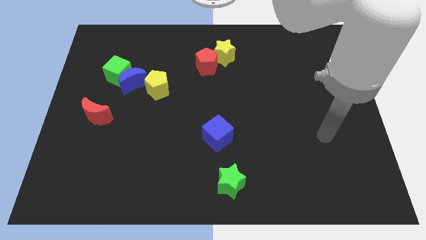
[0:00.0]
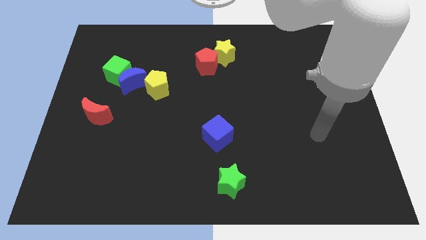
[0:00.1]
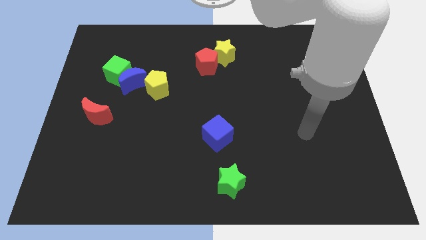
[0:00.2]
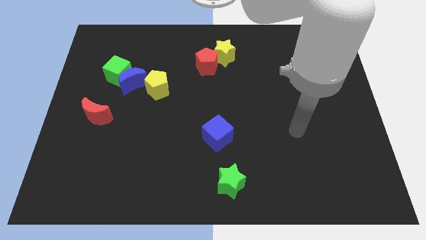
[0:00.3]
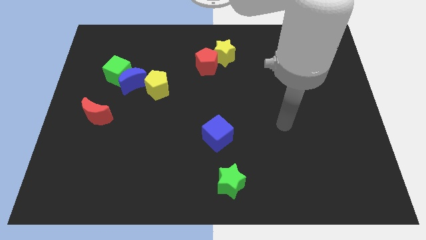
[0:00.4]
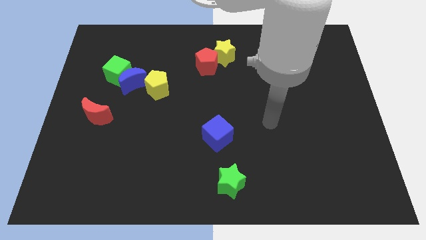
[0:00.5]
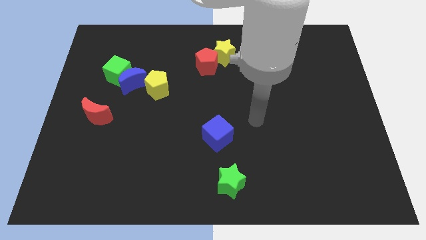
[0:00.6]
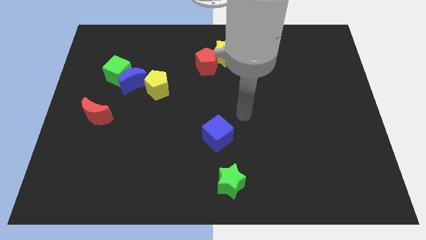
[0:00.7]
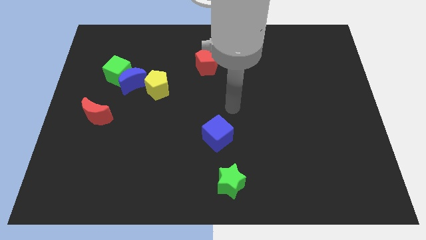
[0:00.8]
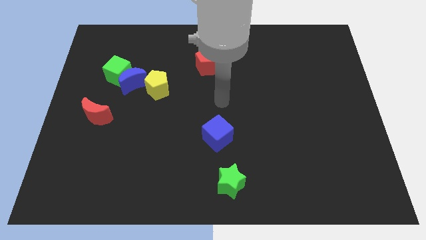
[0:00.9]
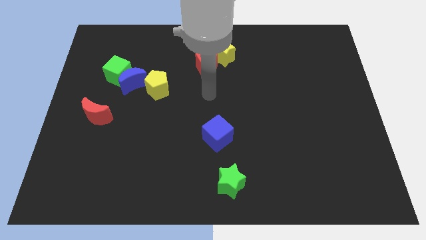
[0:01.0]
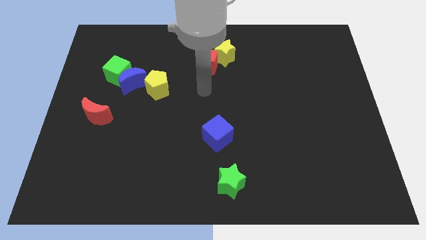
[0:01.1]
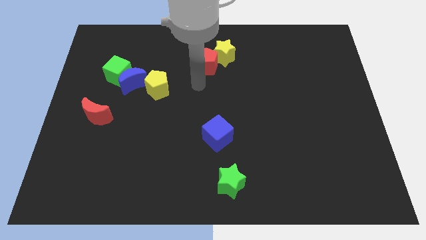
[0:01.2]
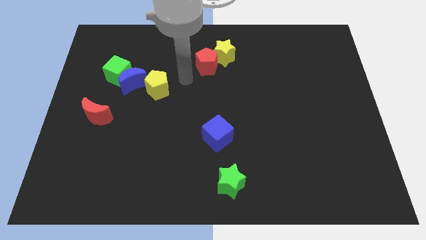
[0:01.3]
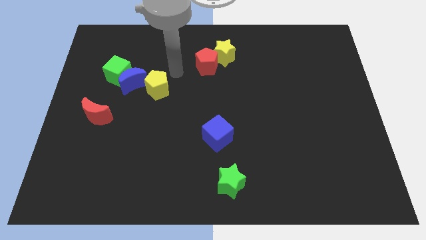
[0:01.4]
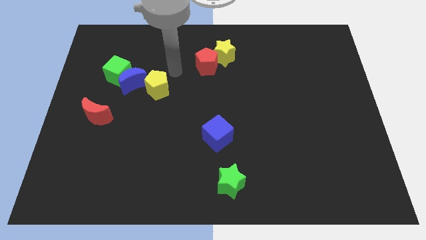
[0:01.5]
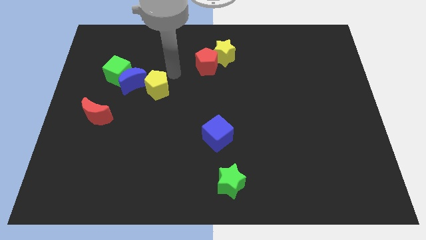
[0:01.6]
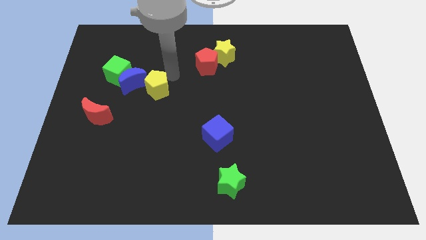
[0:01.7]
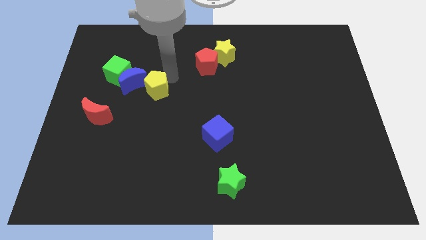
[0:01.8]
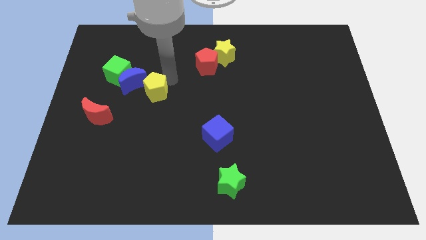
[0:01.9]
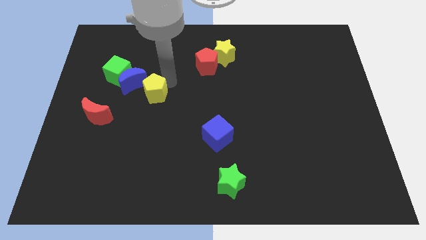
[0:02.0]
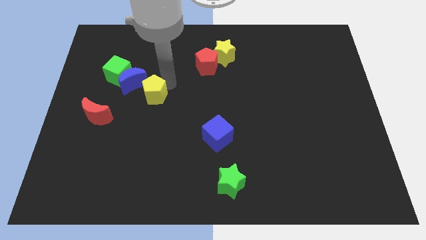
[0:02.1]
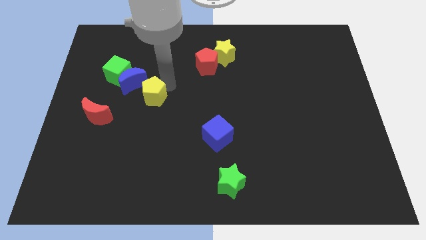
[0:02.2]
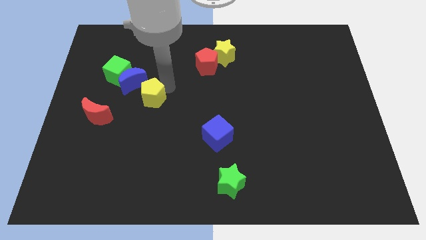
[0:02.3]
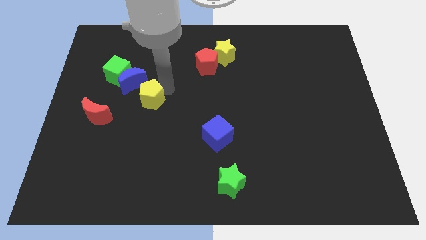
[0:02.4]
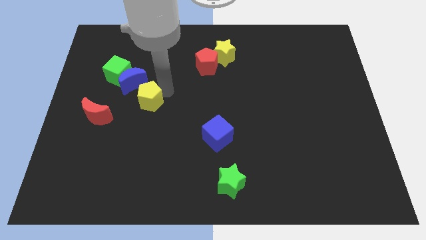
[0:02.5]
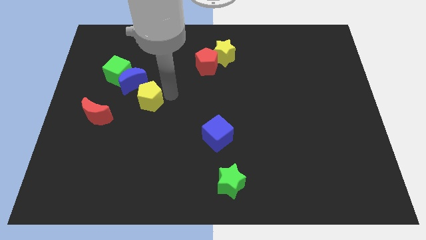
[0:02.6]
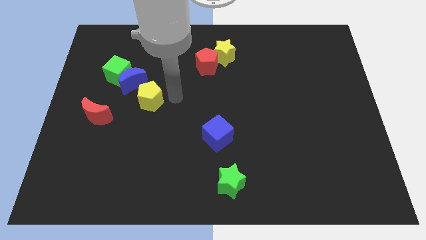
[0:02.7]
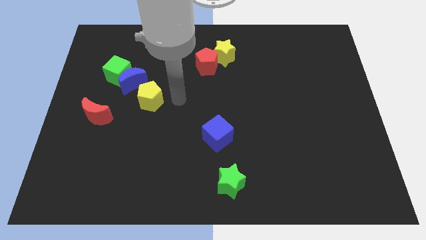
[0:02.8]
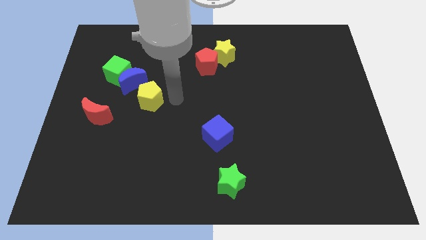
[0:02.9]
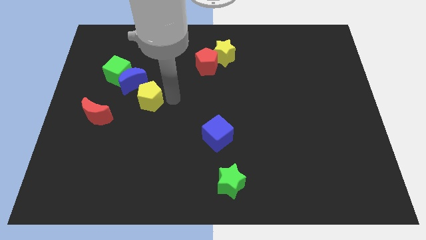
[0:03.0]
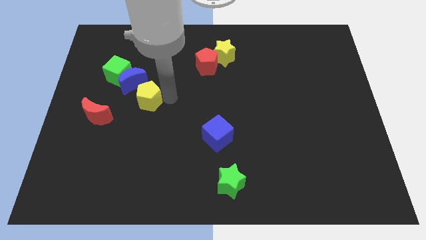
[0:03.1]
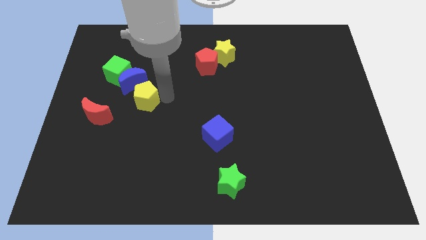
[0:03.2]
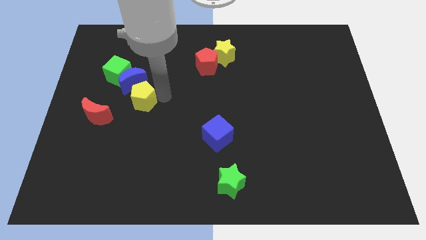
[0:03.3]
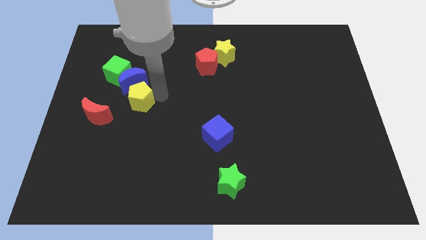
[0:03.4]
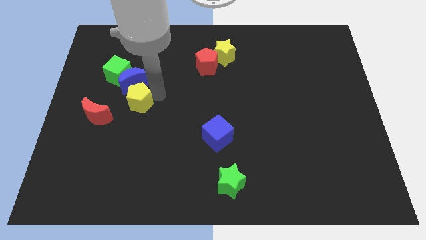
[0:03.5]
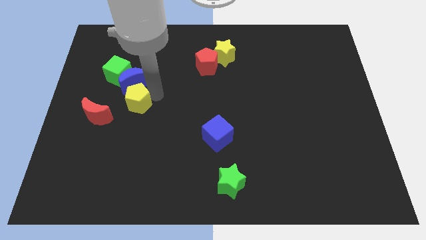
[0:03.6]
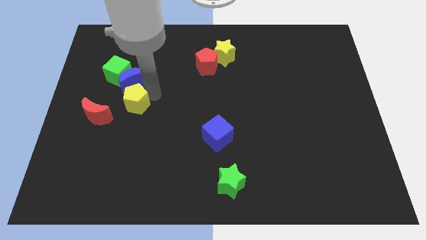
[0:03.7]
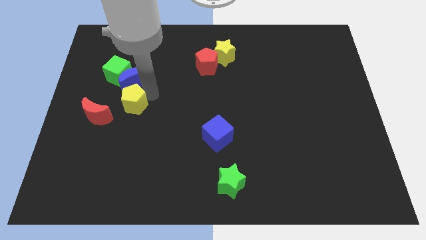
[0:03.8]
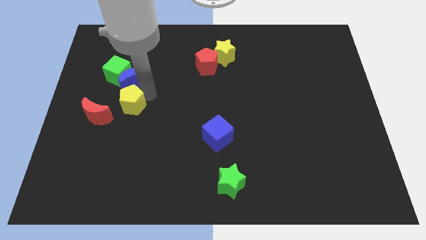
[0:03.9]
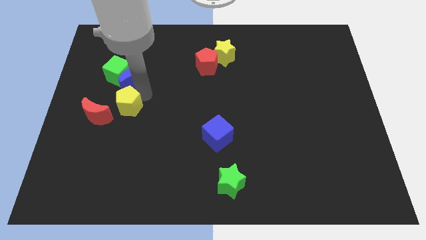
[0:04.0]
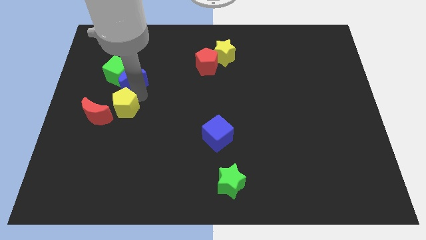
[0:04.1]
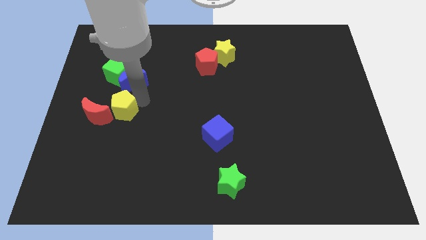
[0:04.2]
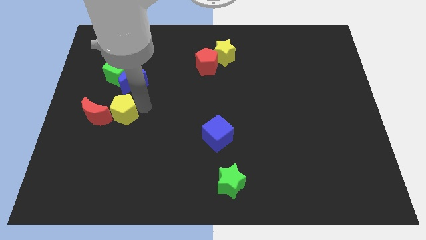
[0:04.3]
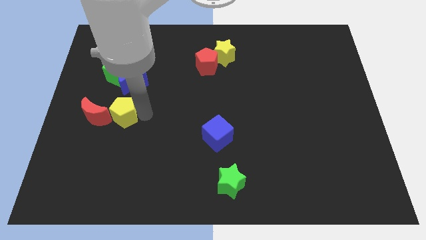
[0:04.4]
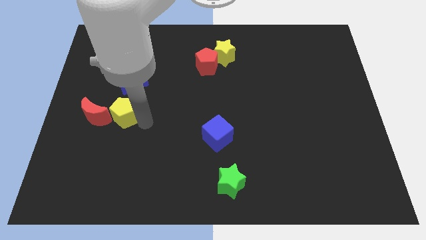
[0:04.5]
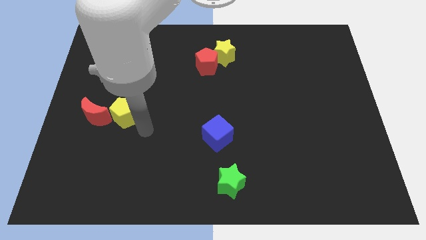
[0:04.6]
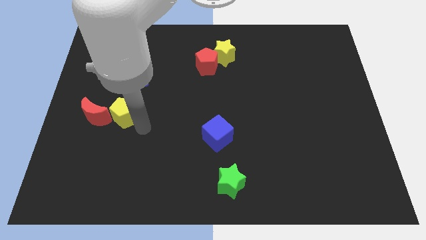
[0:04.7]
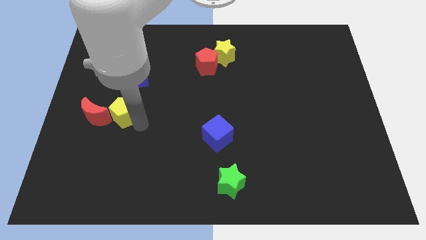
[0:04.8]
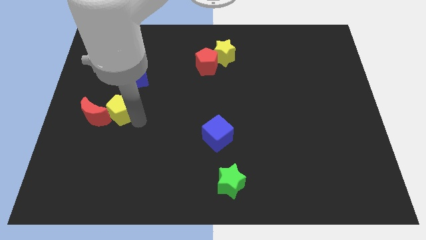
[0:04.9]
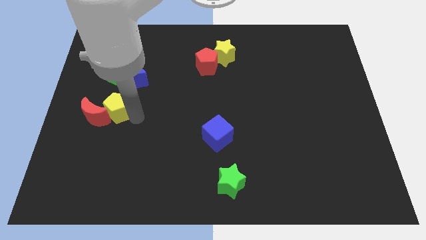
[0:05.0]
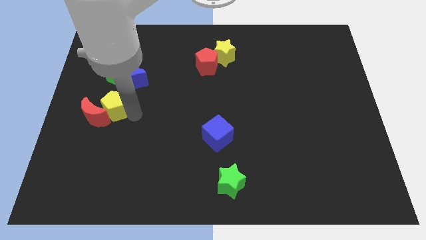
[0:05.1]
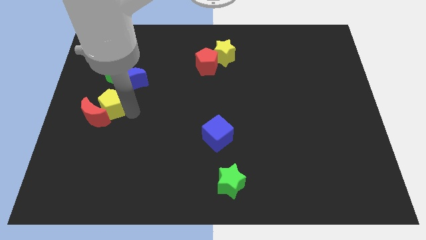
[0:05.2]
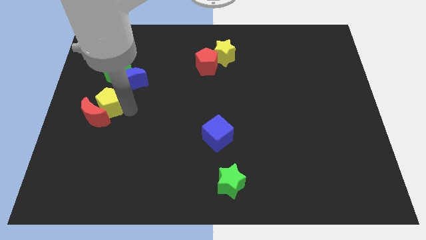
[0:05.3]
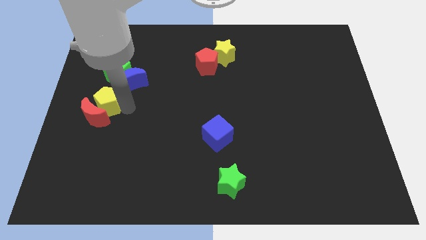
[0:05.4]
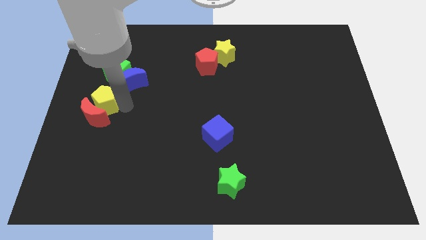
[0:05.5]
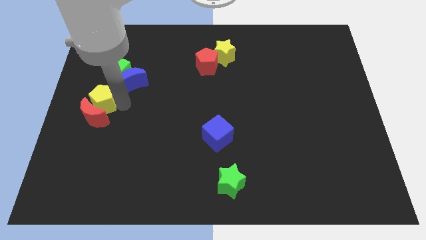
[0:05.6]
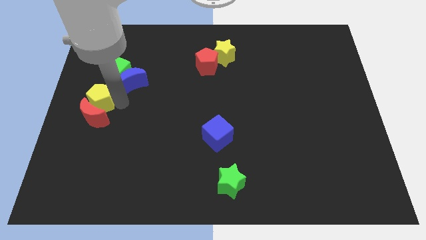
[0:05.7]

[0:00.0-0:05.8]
slide the yellow pentagon diagonally down and to the left of the green cube

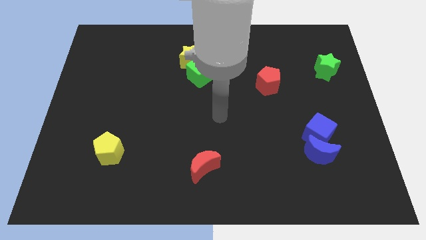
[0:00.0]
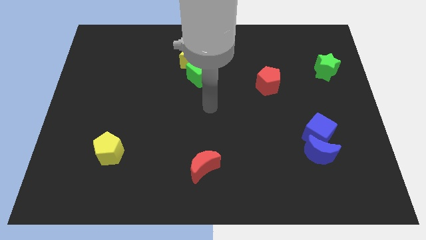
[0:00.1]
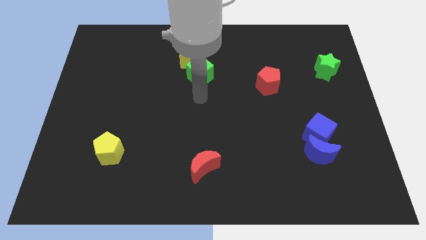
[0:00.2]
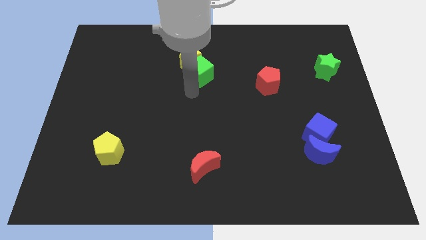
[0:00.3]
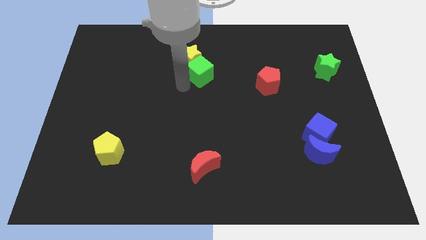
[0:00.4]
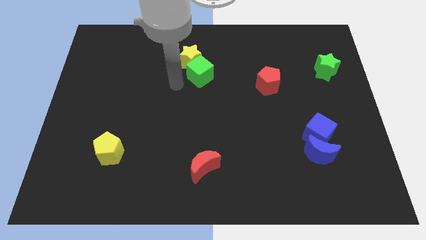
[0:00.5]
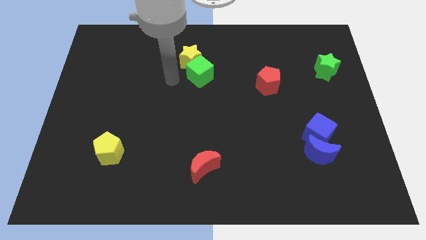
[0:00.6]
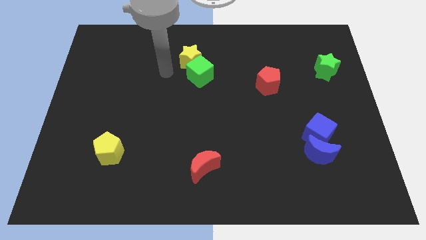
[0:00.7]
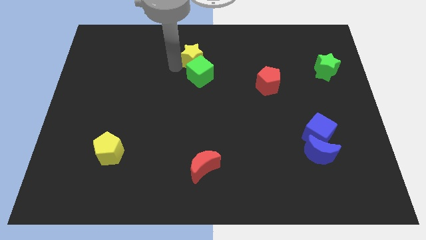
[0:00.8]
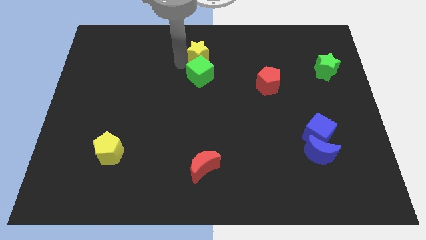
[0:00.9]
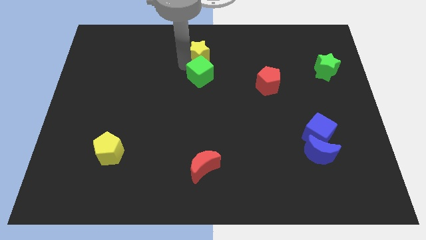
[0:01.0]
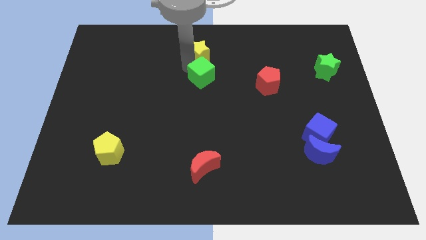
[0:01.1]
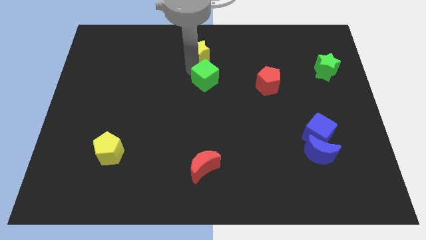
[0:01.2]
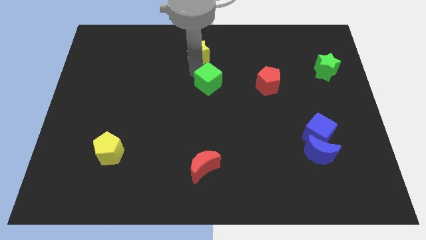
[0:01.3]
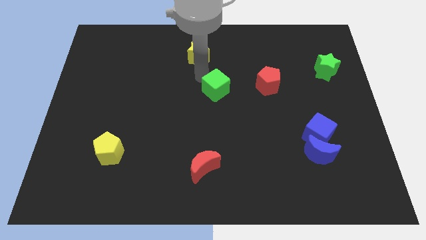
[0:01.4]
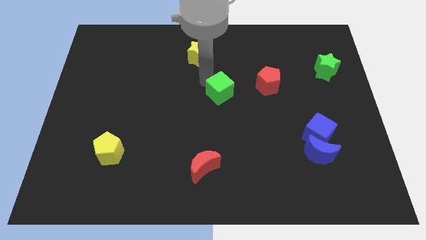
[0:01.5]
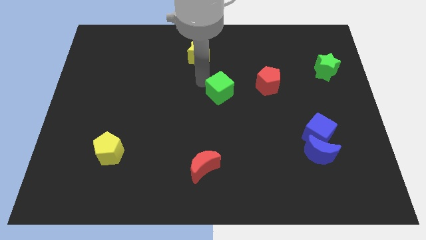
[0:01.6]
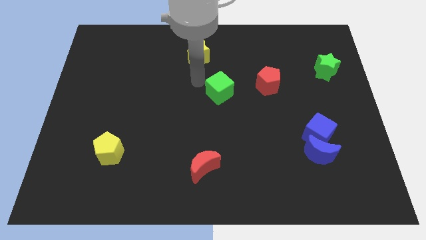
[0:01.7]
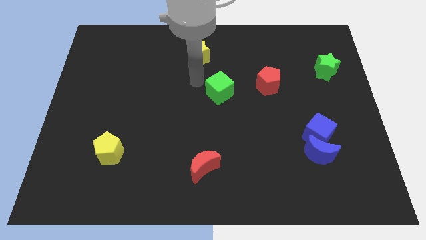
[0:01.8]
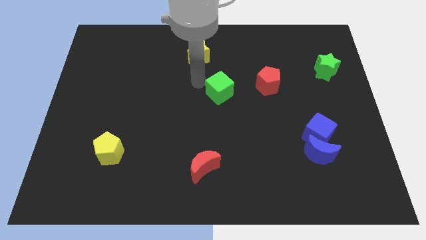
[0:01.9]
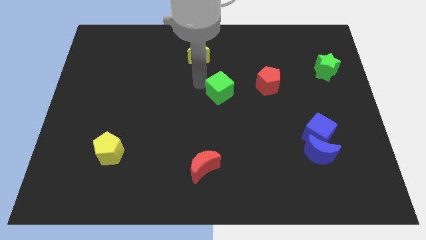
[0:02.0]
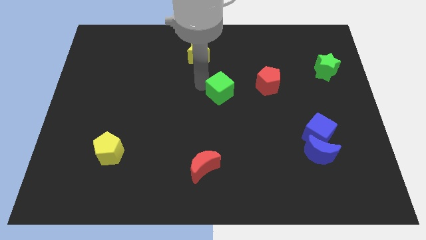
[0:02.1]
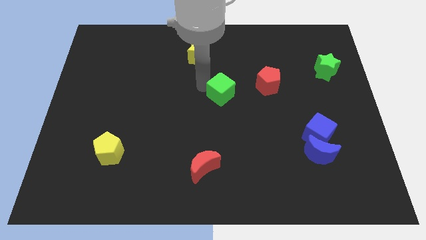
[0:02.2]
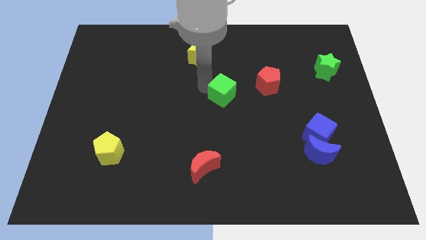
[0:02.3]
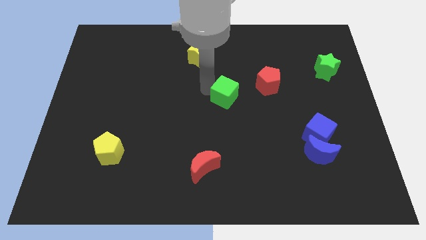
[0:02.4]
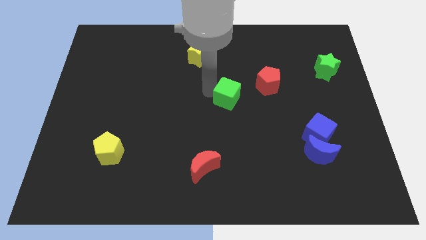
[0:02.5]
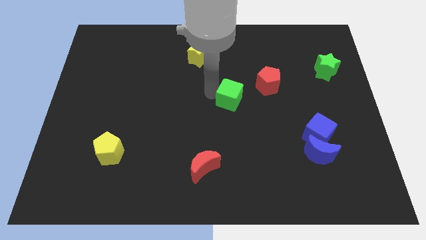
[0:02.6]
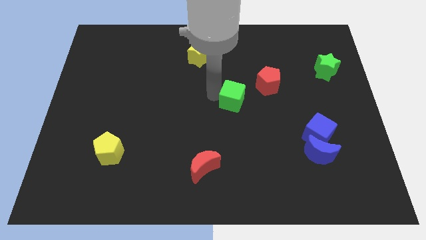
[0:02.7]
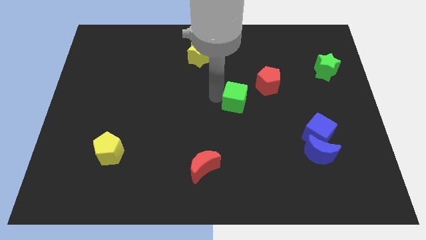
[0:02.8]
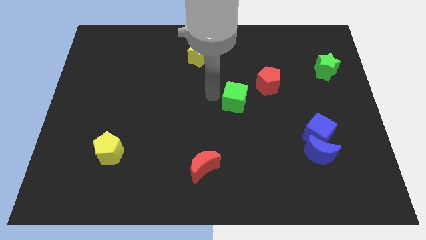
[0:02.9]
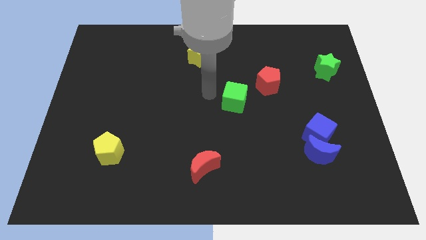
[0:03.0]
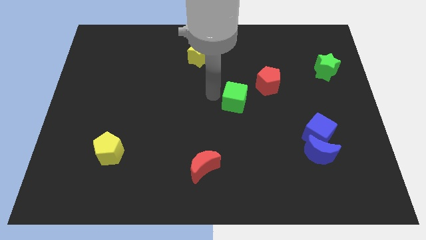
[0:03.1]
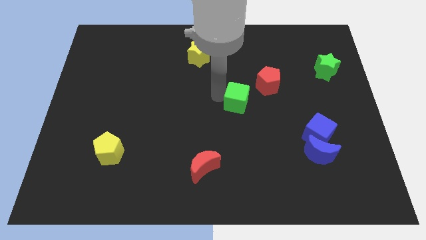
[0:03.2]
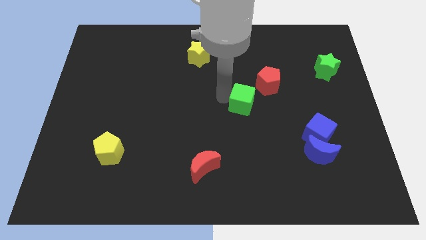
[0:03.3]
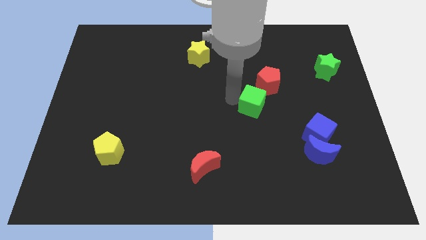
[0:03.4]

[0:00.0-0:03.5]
slide the green cube to the bottom side of the red pentagon
